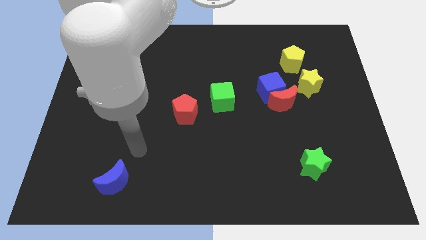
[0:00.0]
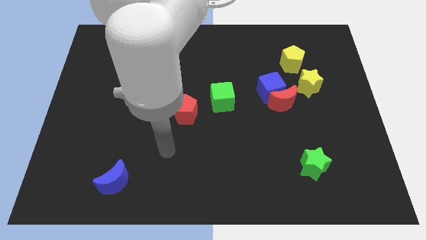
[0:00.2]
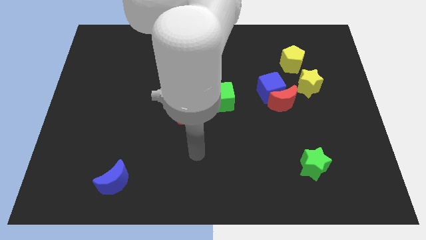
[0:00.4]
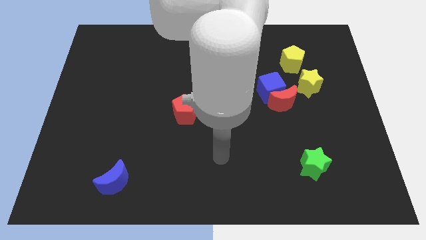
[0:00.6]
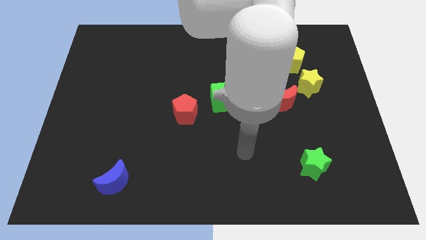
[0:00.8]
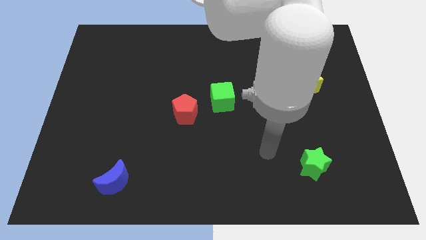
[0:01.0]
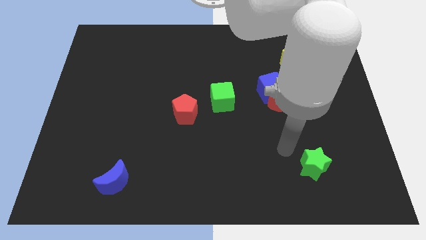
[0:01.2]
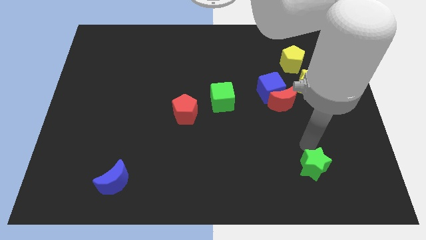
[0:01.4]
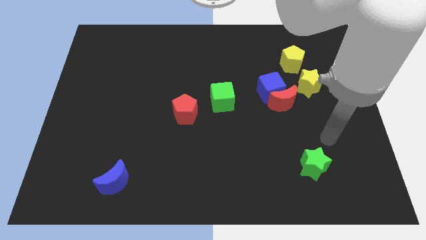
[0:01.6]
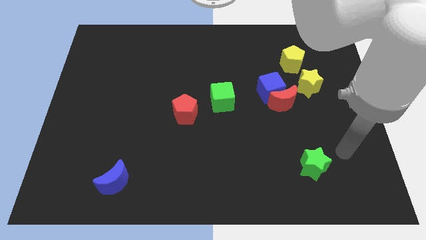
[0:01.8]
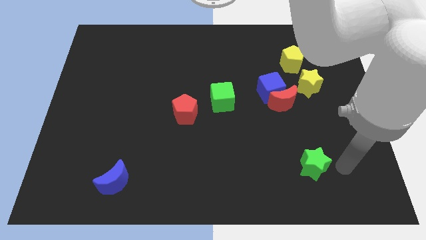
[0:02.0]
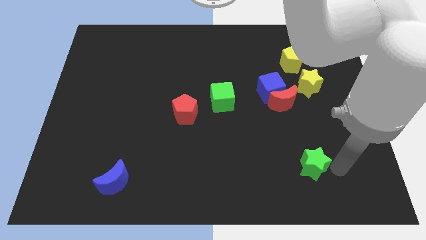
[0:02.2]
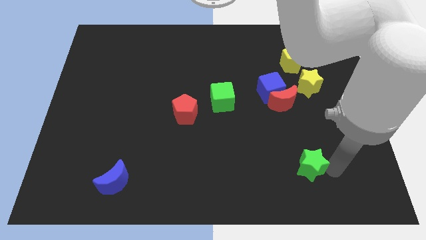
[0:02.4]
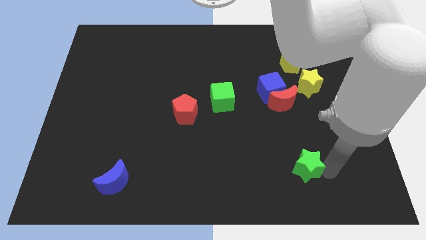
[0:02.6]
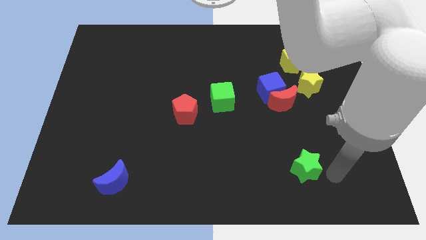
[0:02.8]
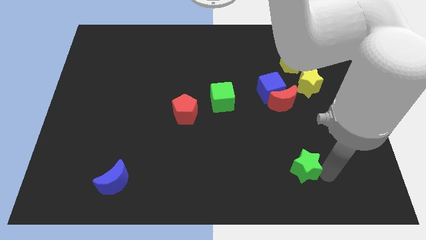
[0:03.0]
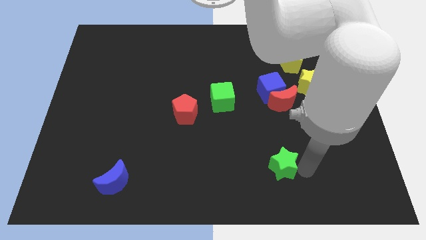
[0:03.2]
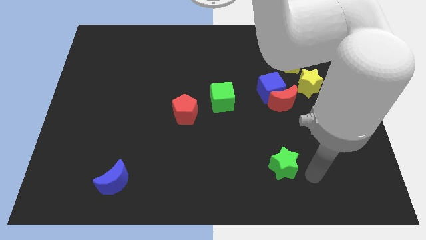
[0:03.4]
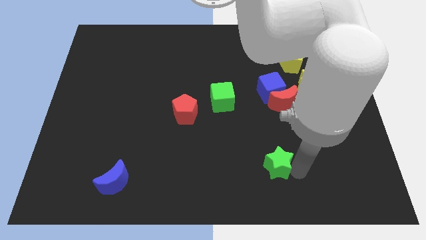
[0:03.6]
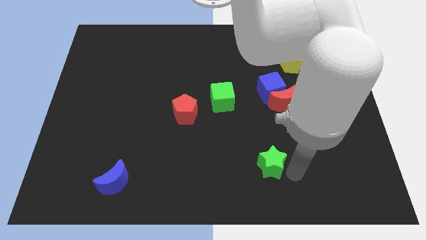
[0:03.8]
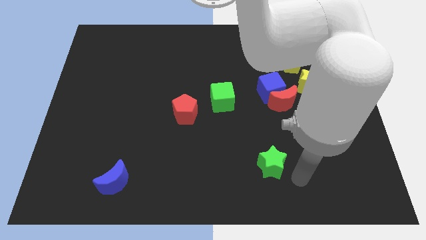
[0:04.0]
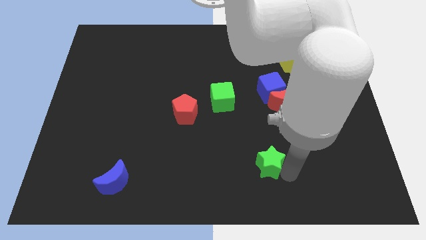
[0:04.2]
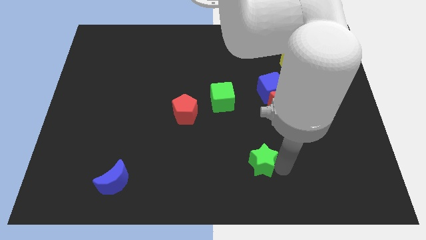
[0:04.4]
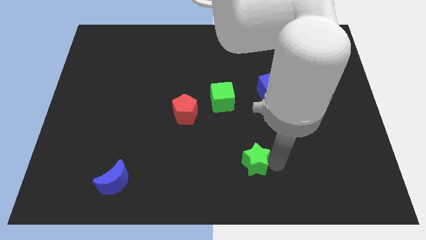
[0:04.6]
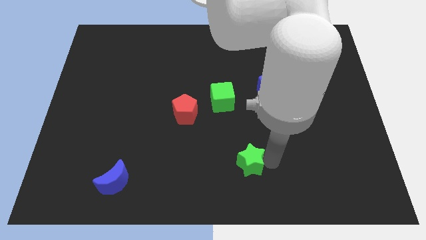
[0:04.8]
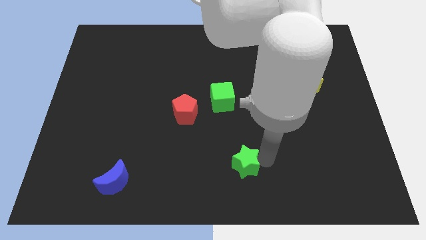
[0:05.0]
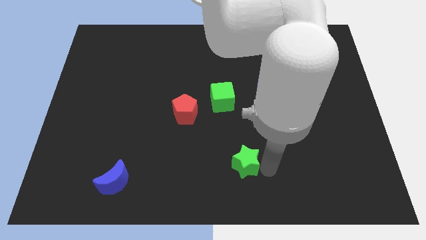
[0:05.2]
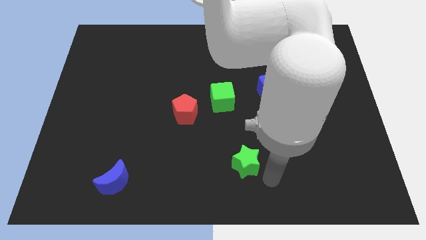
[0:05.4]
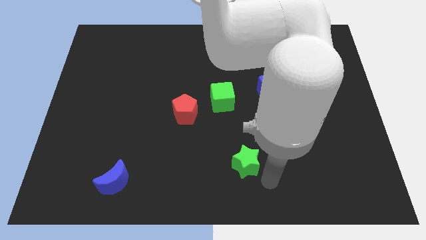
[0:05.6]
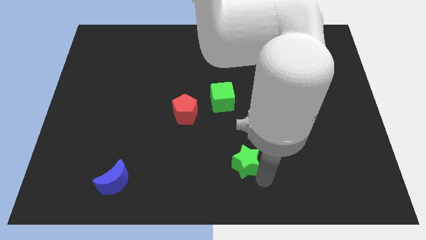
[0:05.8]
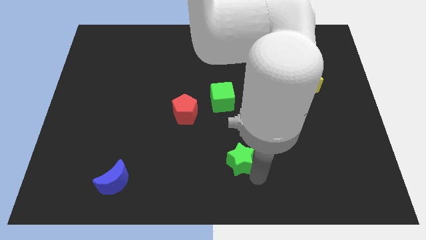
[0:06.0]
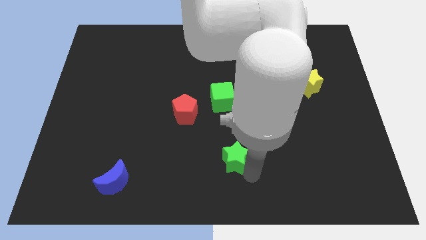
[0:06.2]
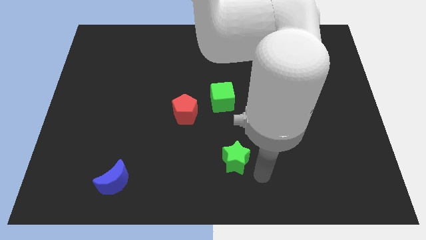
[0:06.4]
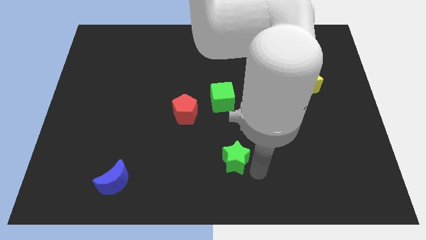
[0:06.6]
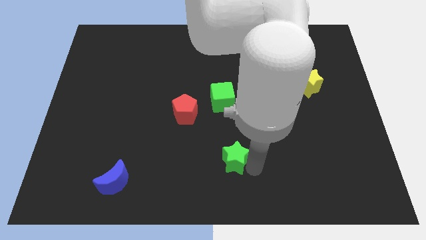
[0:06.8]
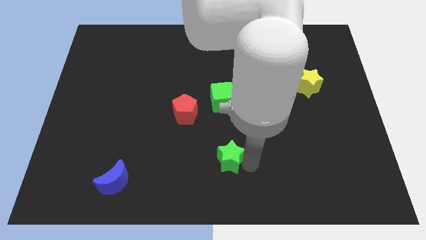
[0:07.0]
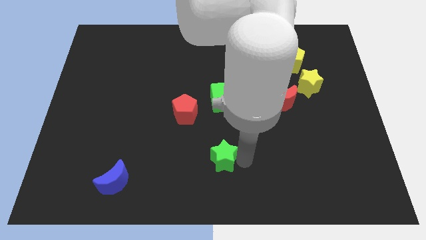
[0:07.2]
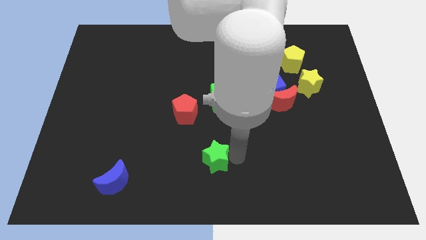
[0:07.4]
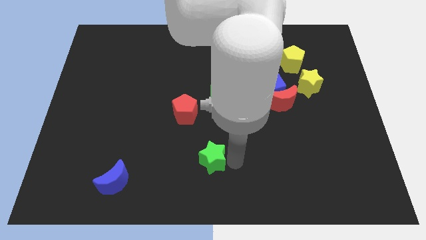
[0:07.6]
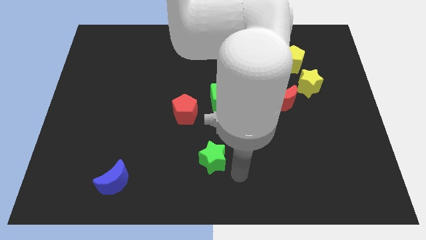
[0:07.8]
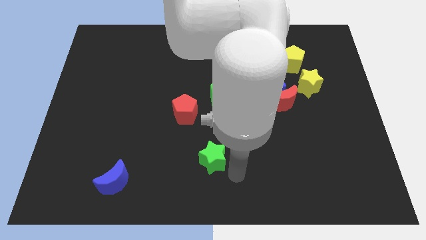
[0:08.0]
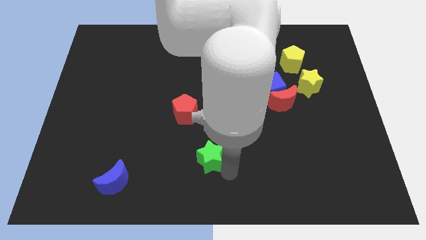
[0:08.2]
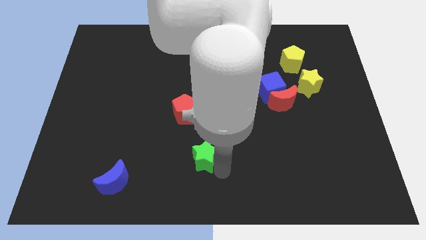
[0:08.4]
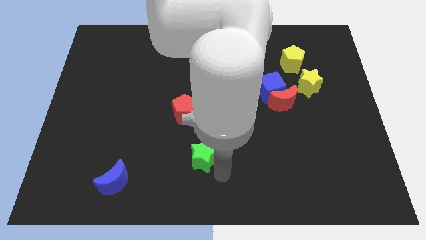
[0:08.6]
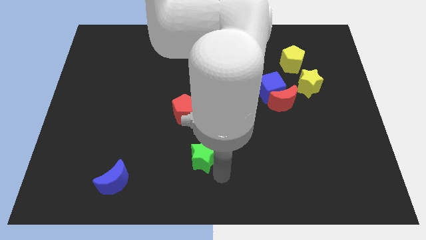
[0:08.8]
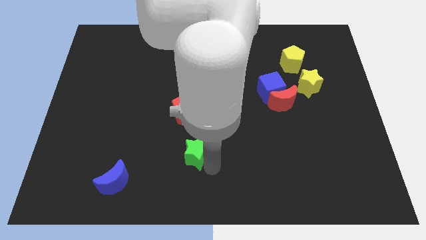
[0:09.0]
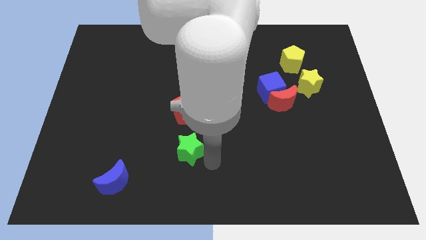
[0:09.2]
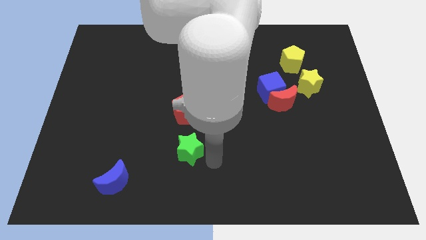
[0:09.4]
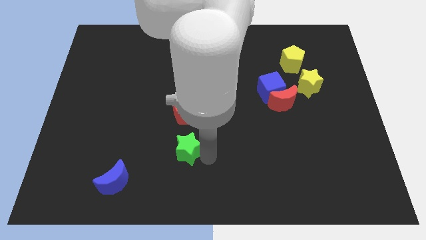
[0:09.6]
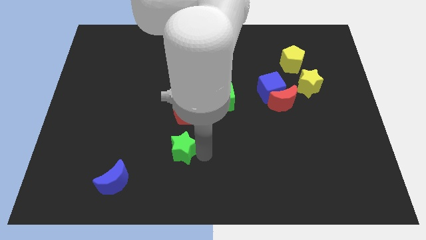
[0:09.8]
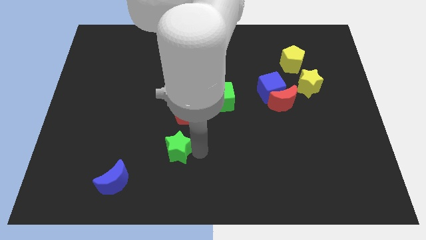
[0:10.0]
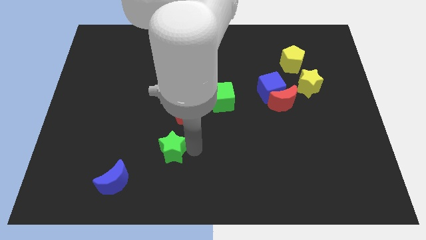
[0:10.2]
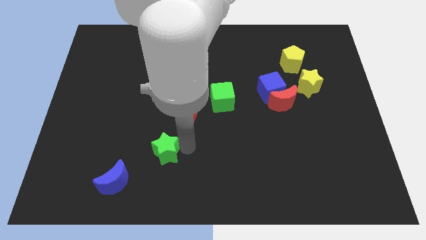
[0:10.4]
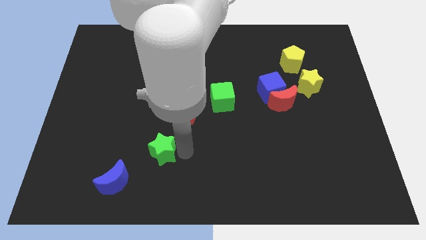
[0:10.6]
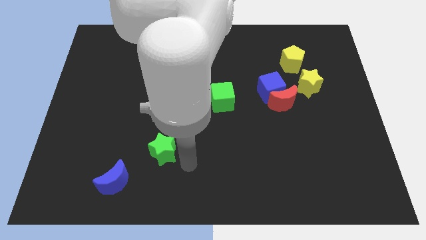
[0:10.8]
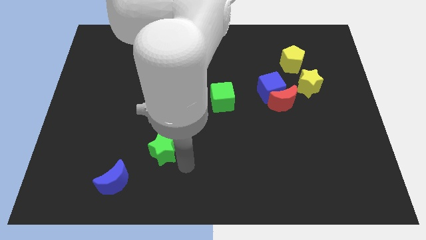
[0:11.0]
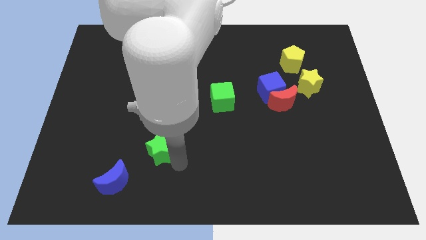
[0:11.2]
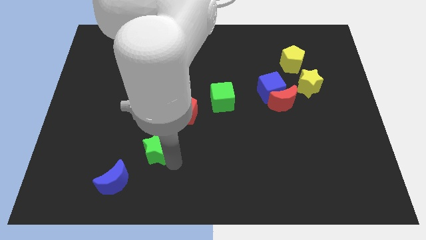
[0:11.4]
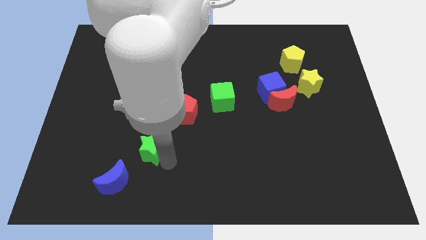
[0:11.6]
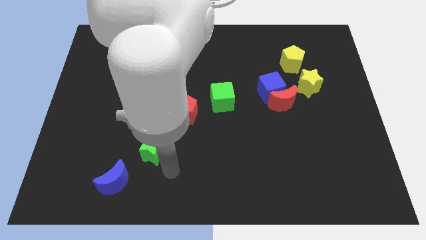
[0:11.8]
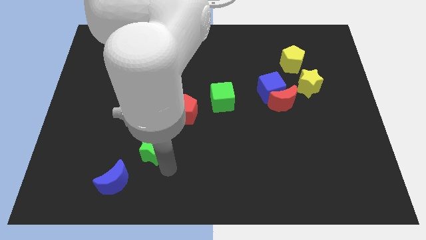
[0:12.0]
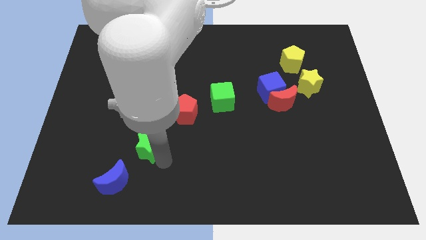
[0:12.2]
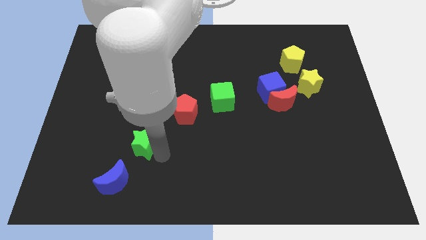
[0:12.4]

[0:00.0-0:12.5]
slide the green star above the blue moon

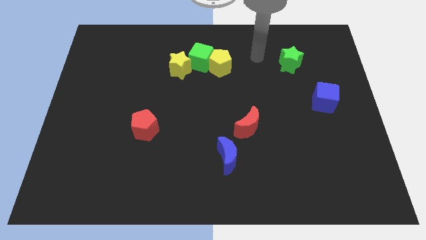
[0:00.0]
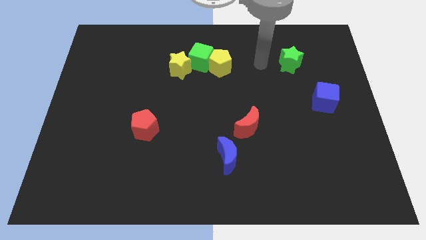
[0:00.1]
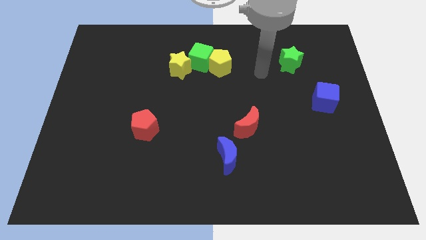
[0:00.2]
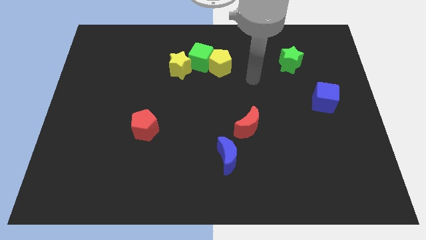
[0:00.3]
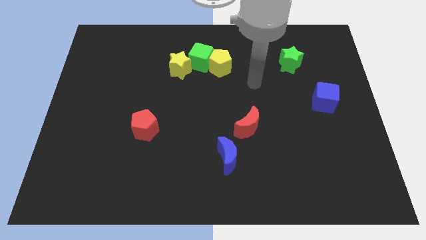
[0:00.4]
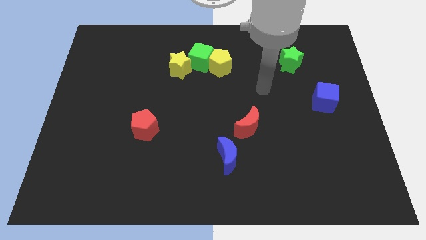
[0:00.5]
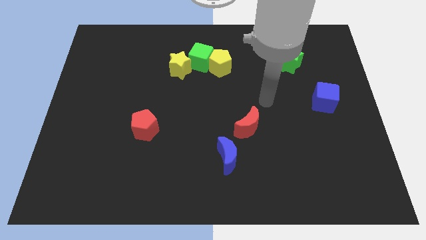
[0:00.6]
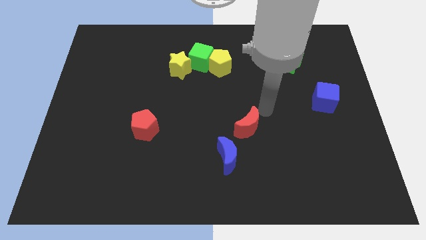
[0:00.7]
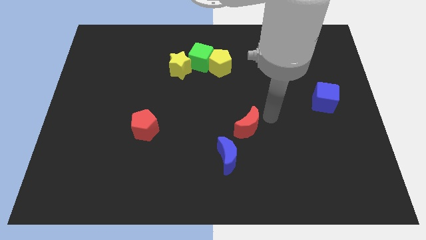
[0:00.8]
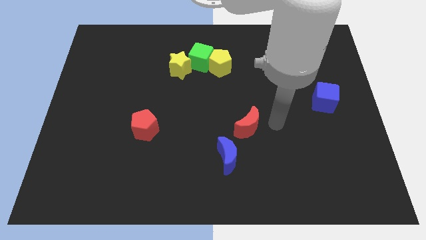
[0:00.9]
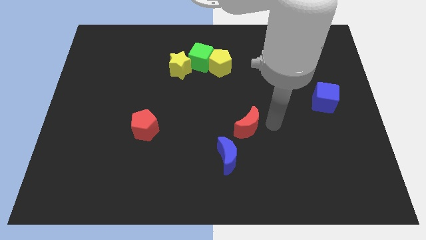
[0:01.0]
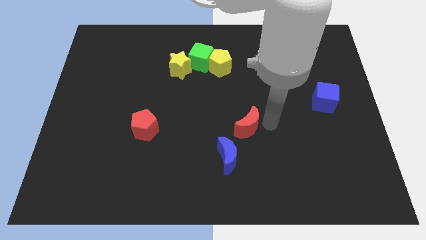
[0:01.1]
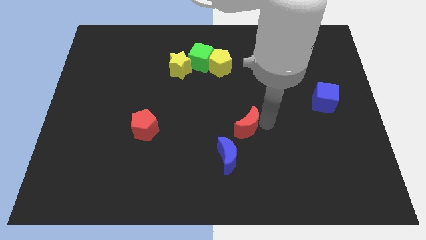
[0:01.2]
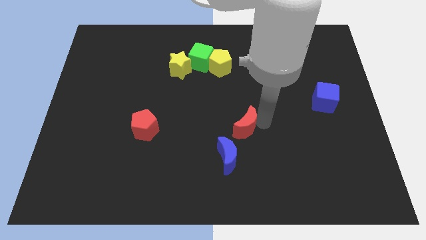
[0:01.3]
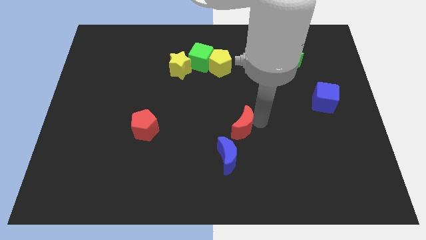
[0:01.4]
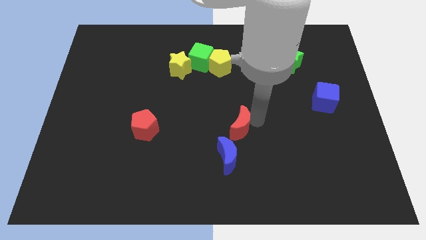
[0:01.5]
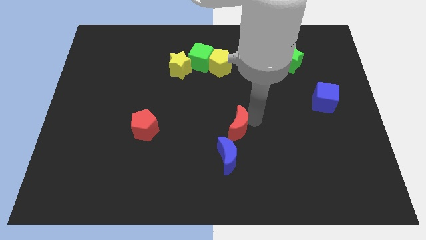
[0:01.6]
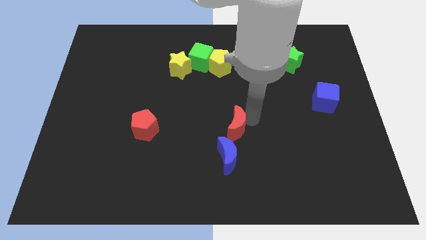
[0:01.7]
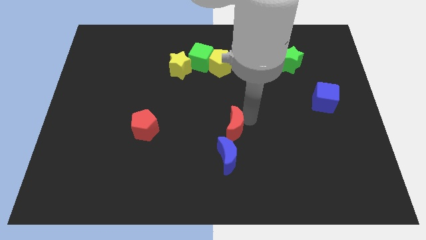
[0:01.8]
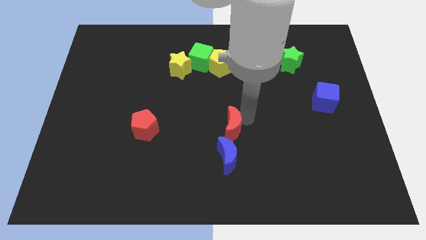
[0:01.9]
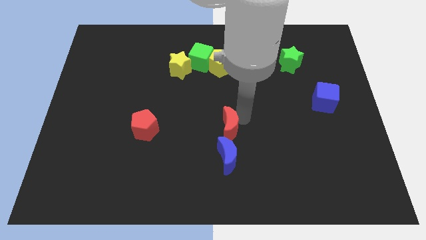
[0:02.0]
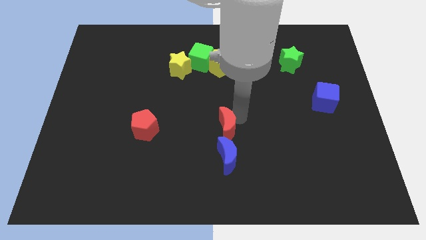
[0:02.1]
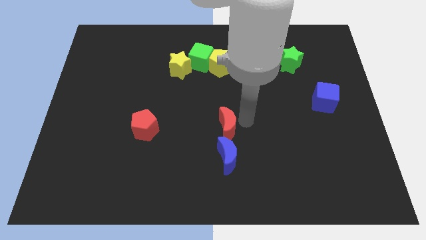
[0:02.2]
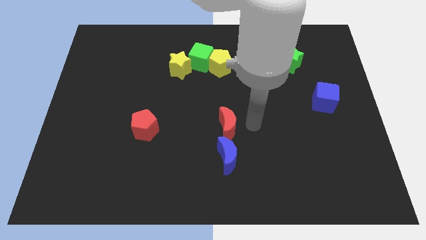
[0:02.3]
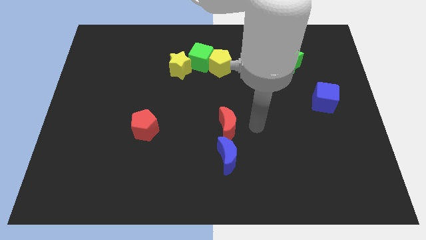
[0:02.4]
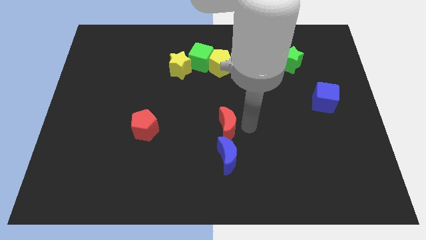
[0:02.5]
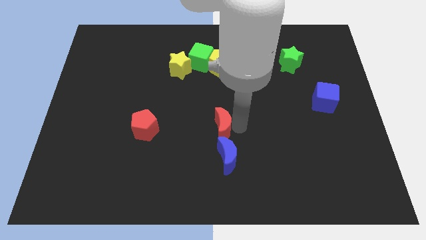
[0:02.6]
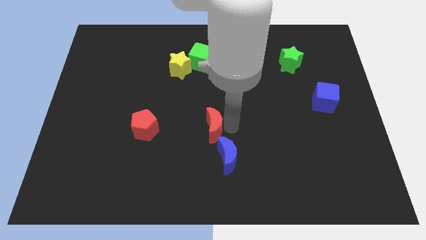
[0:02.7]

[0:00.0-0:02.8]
move the red moon to the right side of the red pentagon
